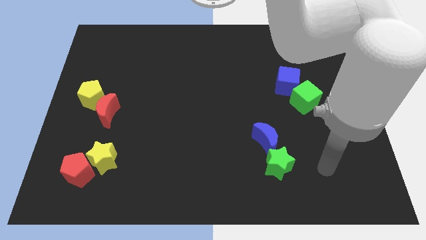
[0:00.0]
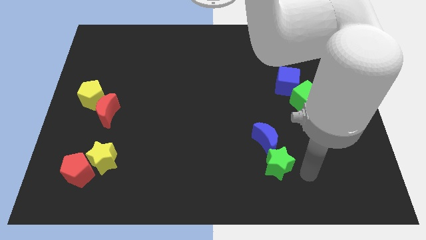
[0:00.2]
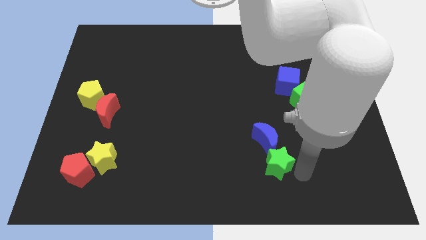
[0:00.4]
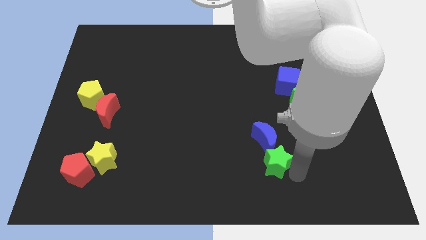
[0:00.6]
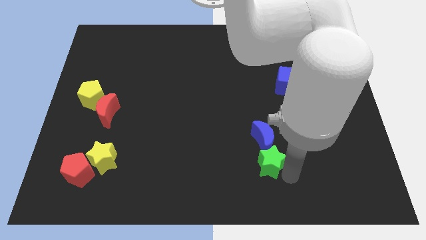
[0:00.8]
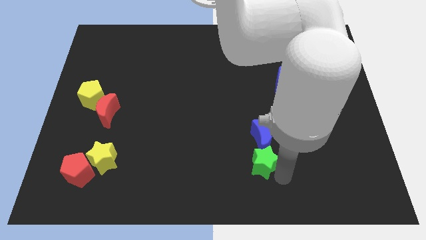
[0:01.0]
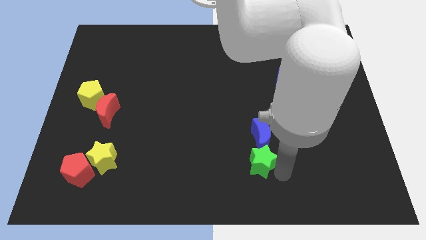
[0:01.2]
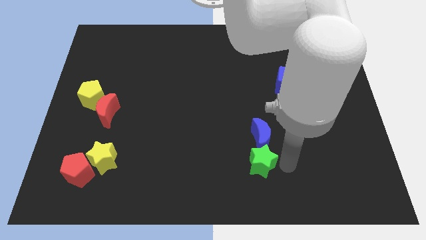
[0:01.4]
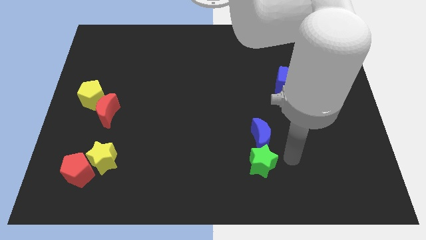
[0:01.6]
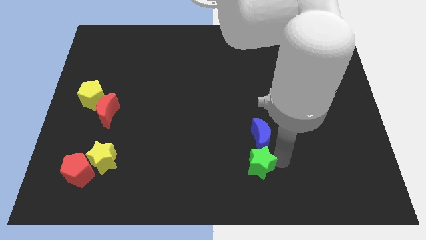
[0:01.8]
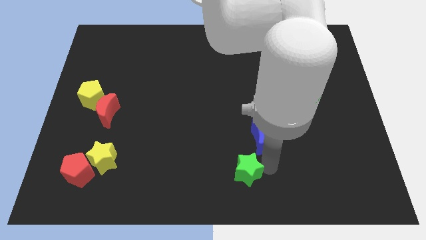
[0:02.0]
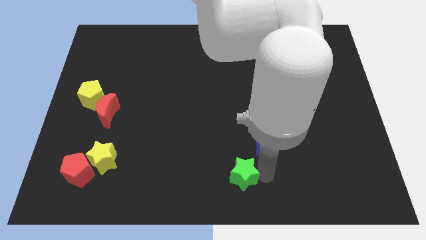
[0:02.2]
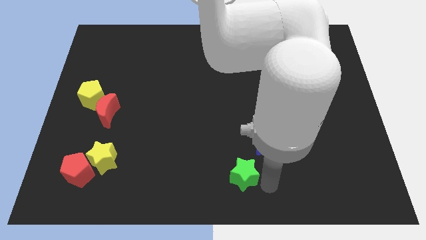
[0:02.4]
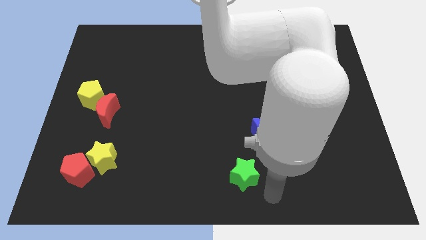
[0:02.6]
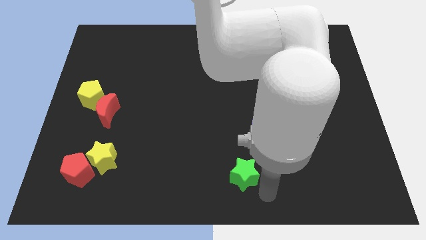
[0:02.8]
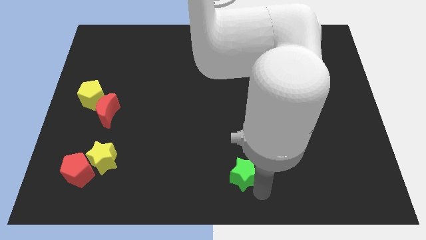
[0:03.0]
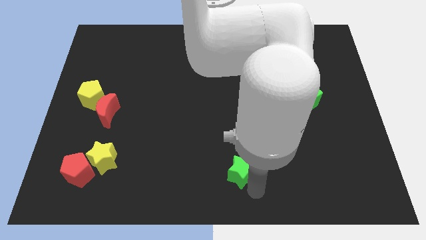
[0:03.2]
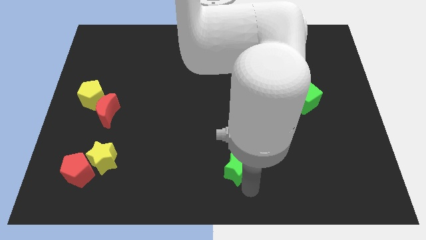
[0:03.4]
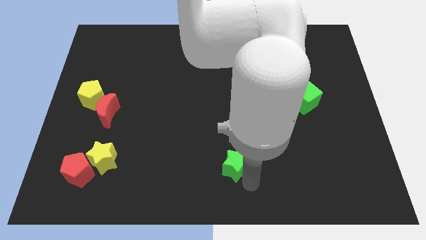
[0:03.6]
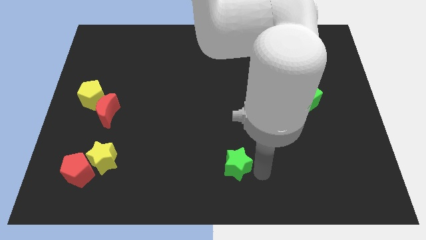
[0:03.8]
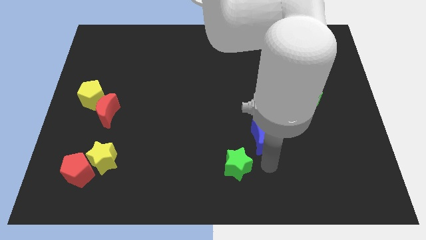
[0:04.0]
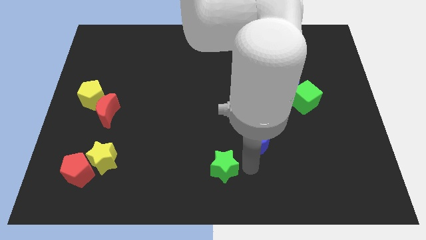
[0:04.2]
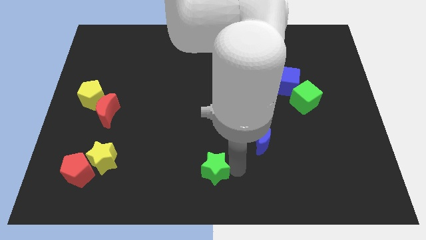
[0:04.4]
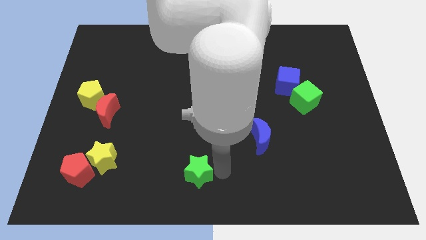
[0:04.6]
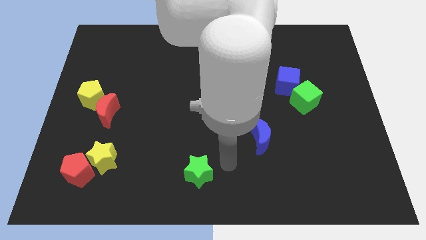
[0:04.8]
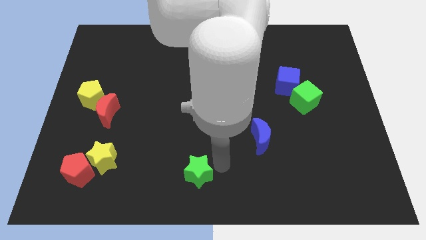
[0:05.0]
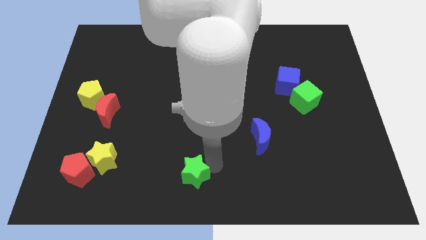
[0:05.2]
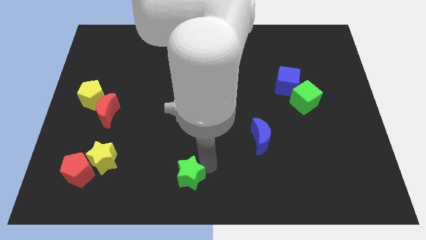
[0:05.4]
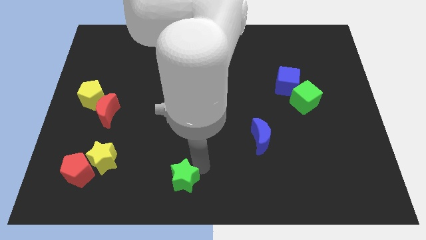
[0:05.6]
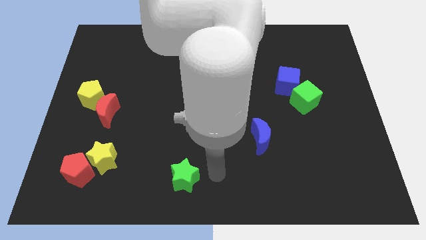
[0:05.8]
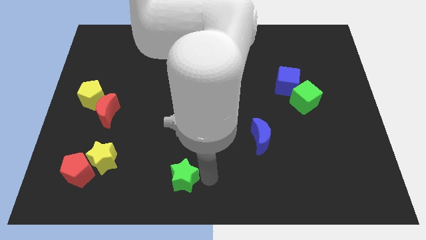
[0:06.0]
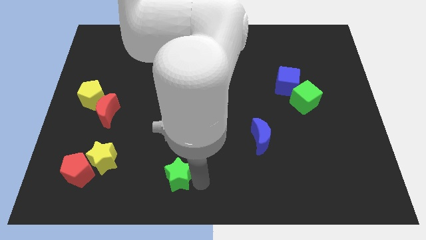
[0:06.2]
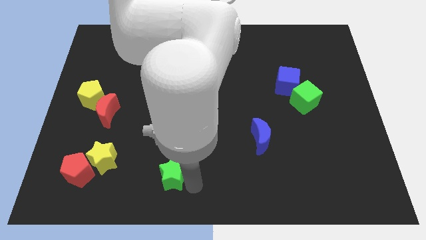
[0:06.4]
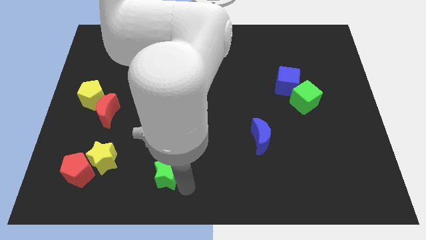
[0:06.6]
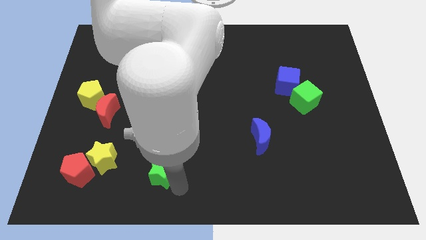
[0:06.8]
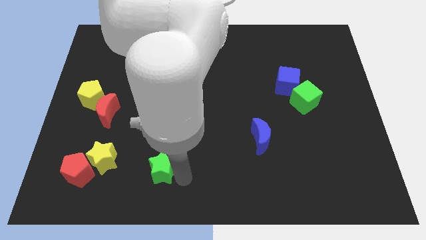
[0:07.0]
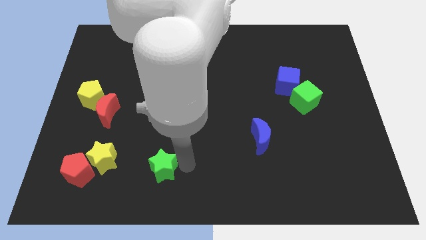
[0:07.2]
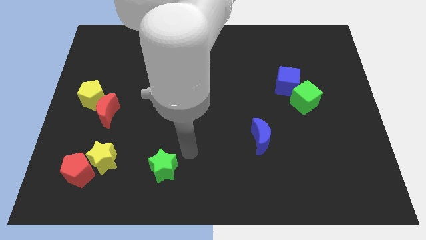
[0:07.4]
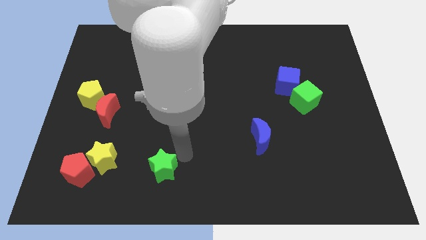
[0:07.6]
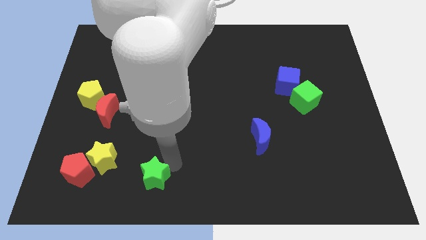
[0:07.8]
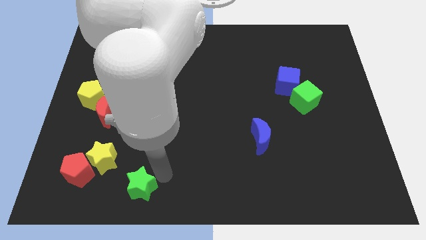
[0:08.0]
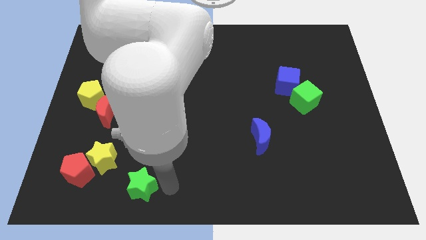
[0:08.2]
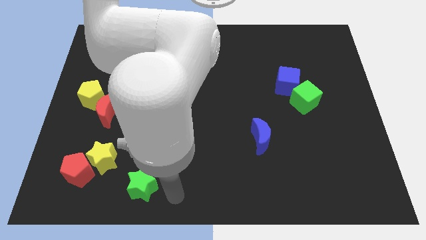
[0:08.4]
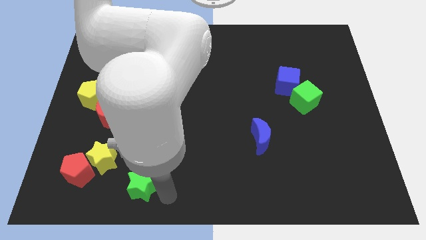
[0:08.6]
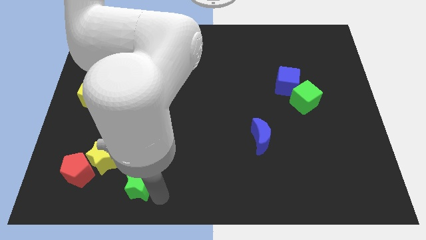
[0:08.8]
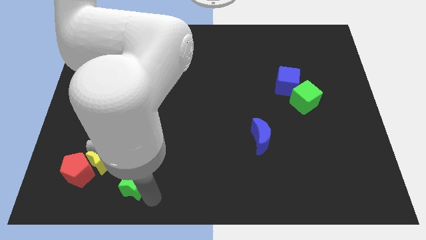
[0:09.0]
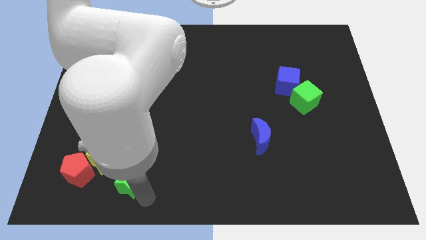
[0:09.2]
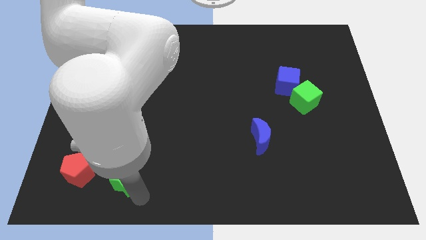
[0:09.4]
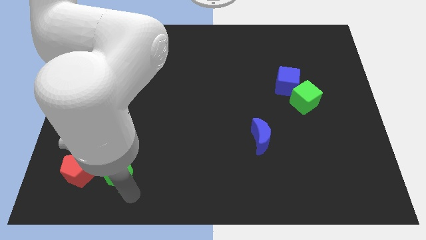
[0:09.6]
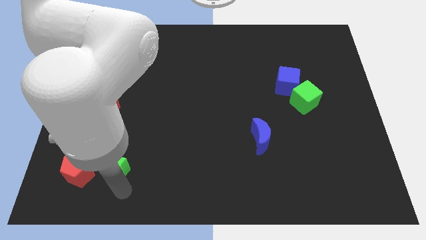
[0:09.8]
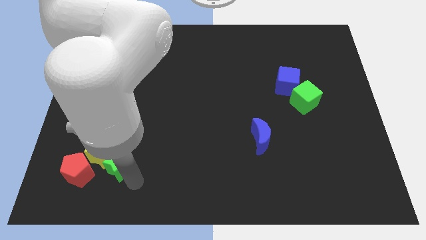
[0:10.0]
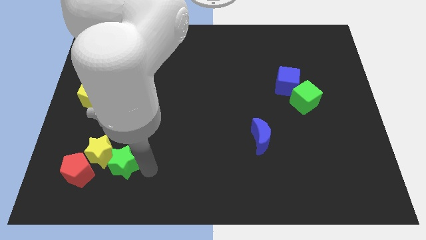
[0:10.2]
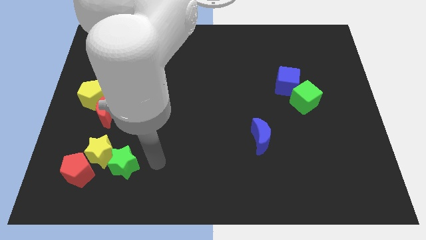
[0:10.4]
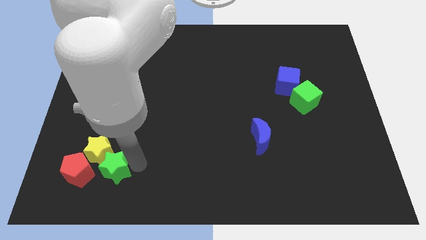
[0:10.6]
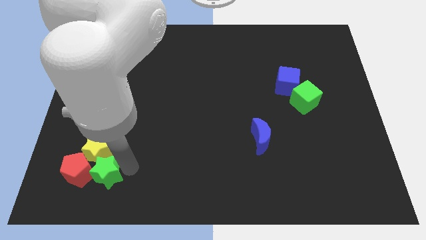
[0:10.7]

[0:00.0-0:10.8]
push the green star to the red pentagon

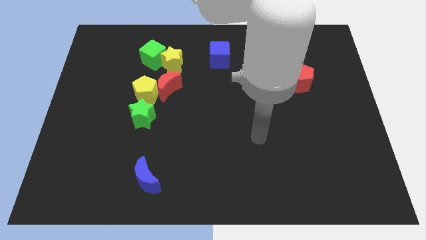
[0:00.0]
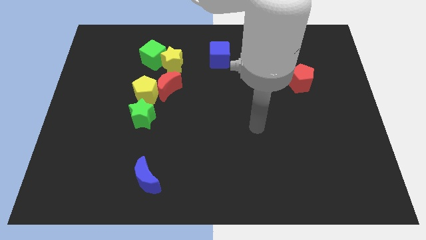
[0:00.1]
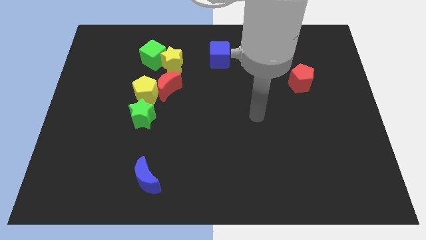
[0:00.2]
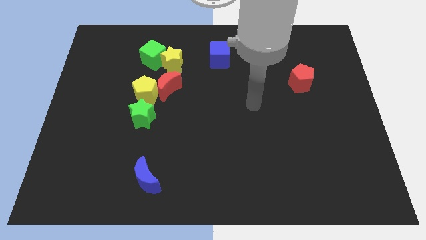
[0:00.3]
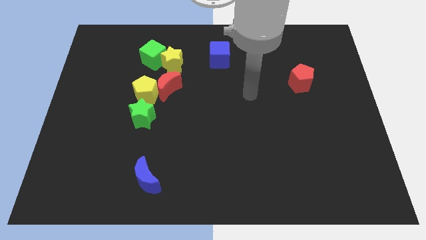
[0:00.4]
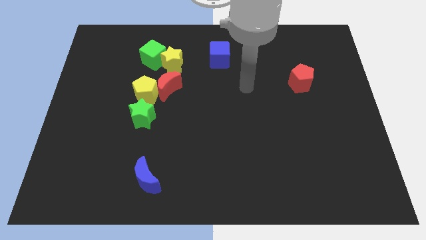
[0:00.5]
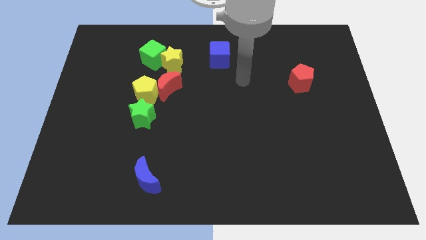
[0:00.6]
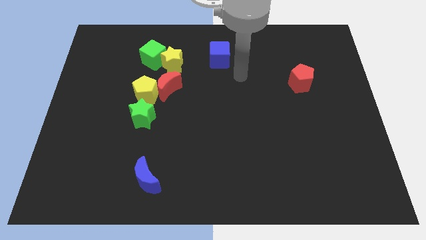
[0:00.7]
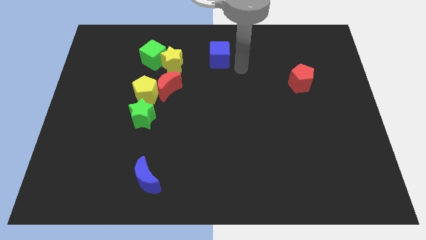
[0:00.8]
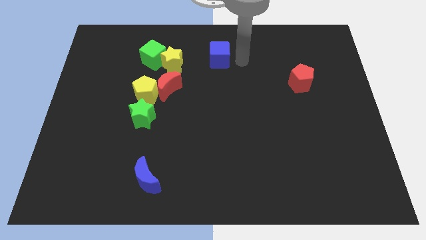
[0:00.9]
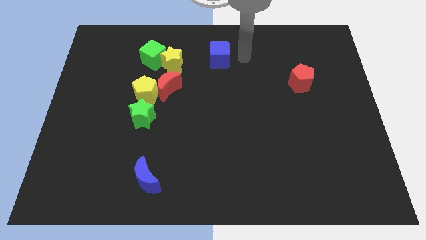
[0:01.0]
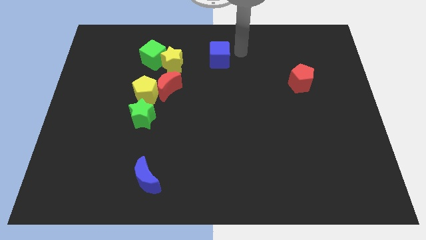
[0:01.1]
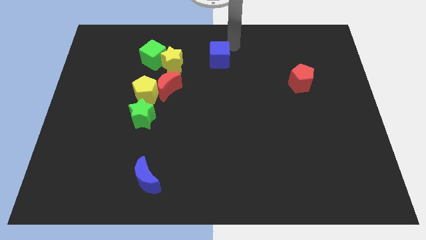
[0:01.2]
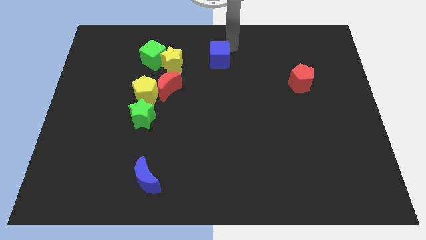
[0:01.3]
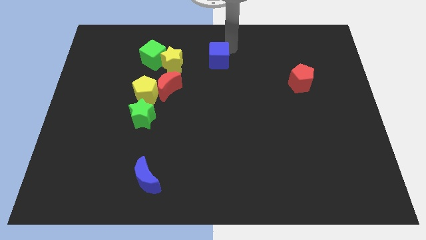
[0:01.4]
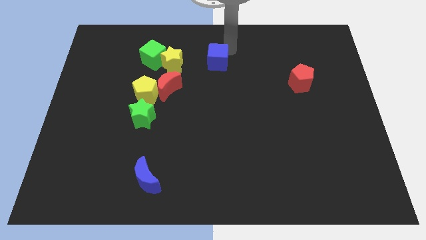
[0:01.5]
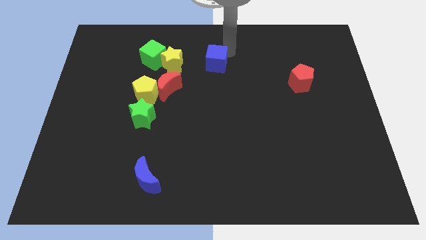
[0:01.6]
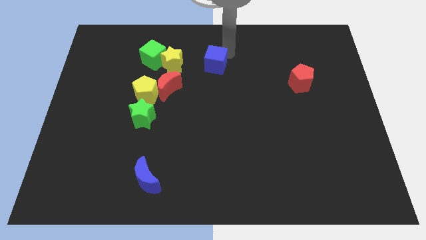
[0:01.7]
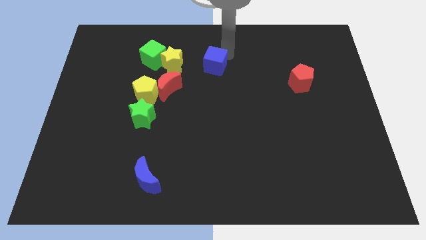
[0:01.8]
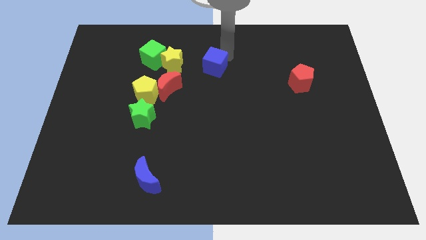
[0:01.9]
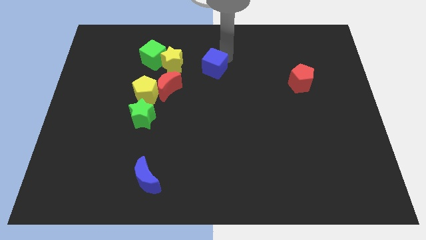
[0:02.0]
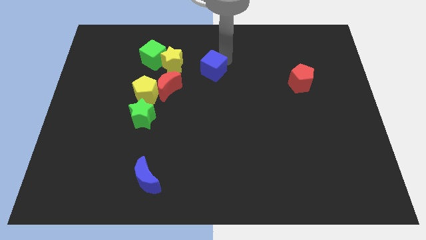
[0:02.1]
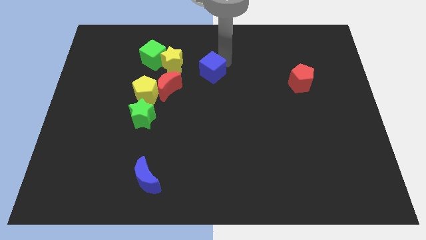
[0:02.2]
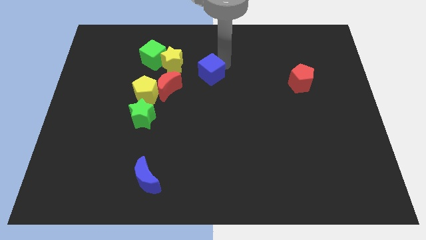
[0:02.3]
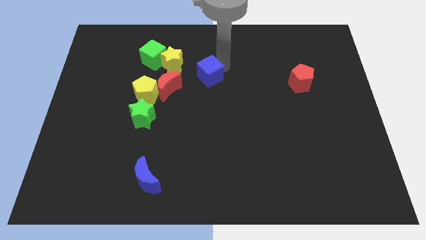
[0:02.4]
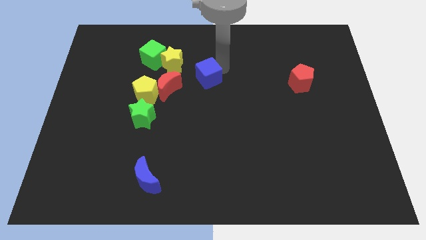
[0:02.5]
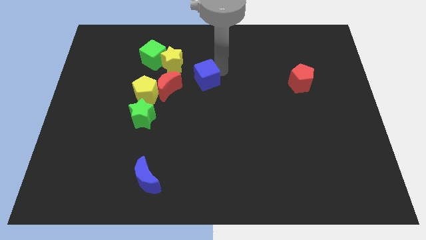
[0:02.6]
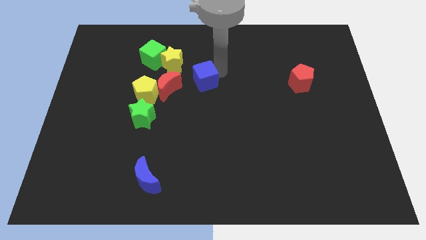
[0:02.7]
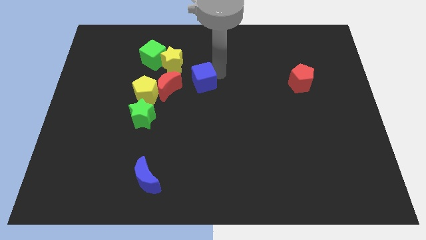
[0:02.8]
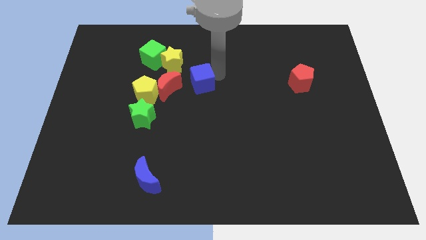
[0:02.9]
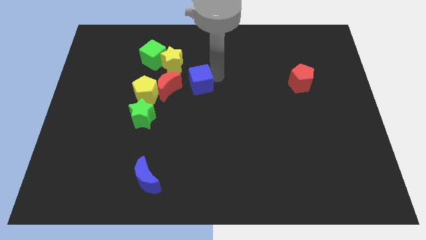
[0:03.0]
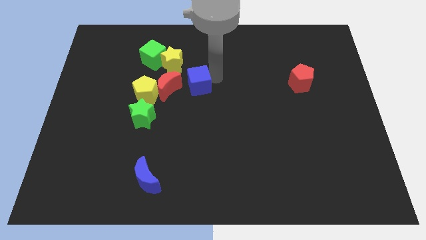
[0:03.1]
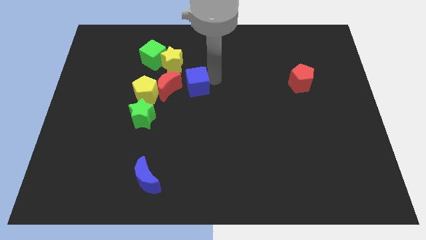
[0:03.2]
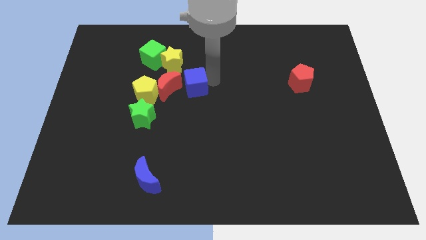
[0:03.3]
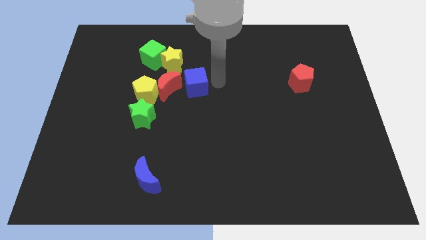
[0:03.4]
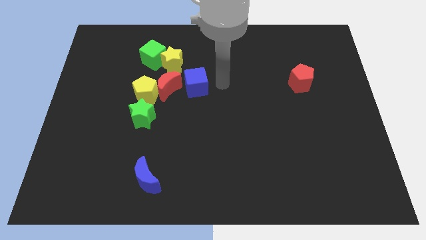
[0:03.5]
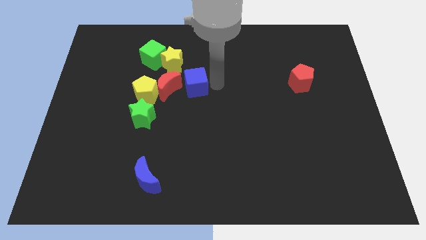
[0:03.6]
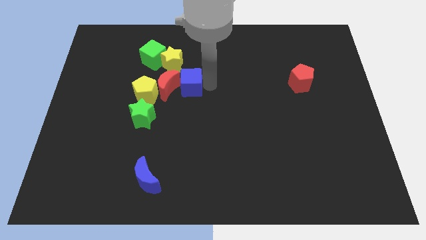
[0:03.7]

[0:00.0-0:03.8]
push the blue cube close to the red moon
